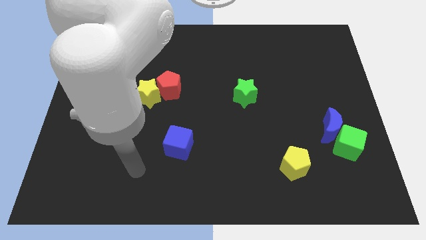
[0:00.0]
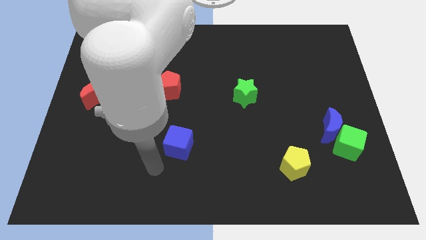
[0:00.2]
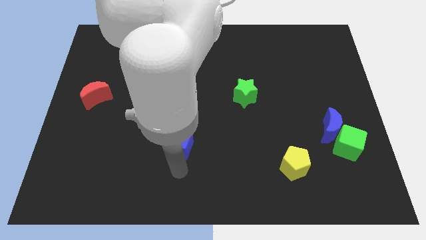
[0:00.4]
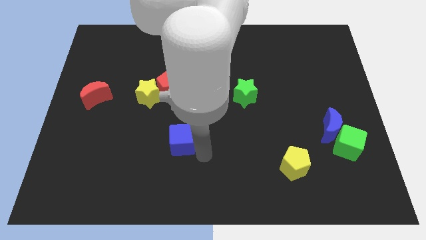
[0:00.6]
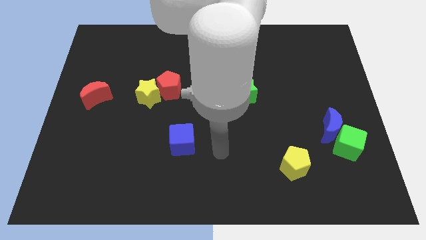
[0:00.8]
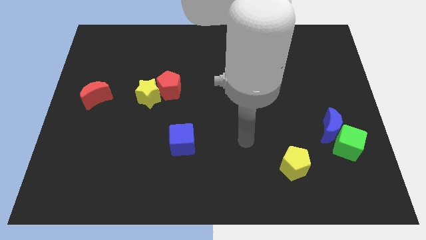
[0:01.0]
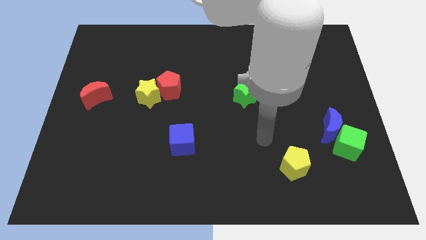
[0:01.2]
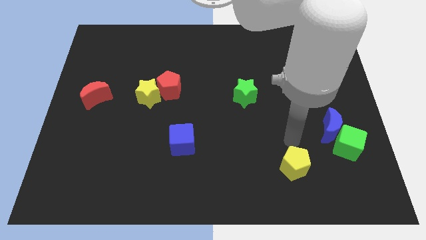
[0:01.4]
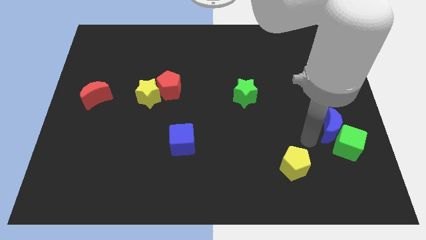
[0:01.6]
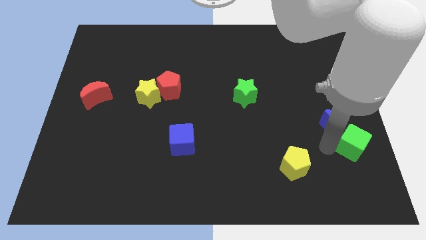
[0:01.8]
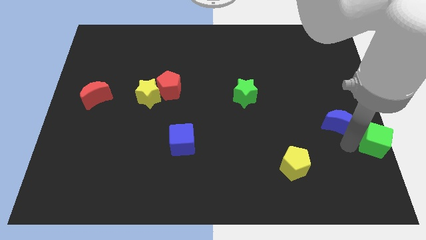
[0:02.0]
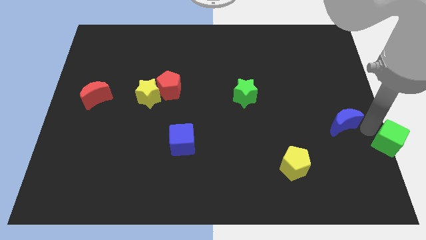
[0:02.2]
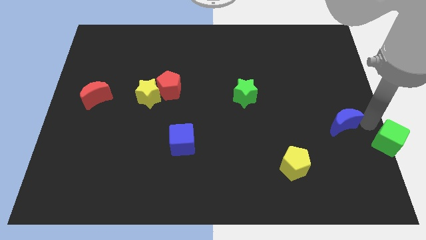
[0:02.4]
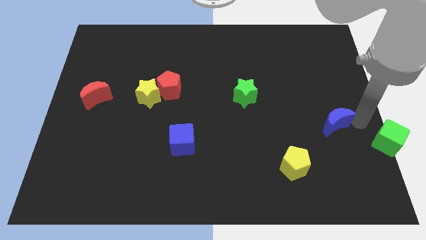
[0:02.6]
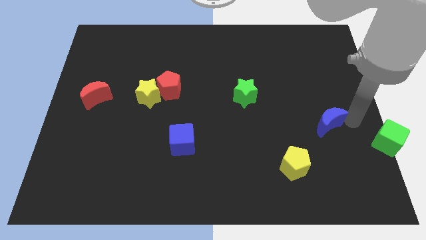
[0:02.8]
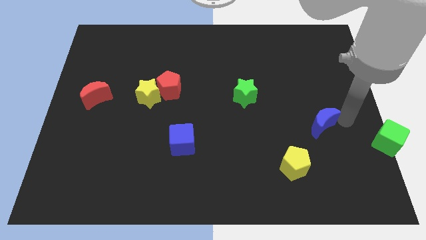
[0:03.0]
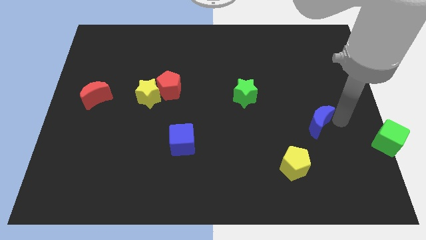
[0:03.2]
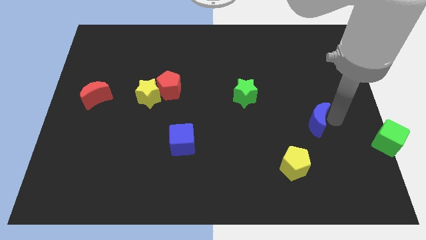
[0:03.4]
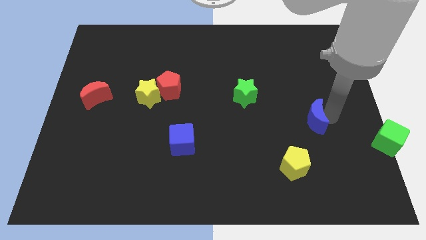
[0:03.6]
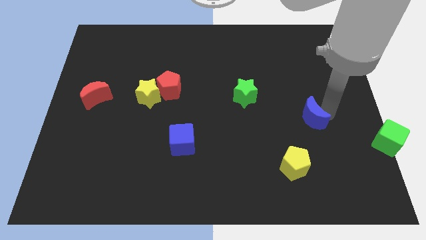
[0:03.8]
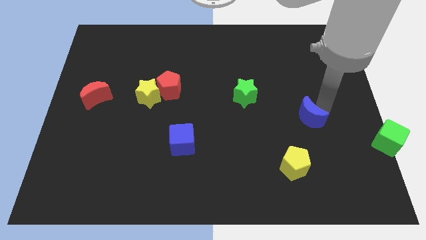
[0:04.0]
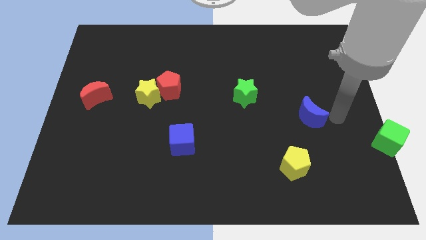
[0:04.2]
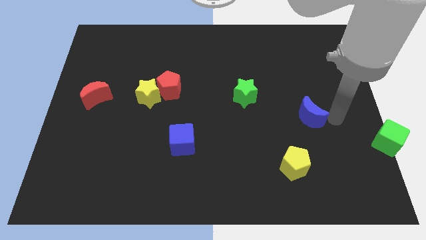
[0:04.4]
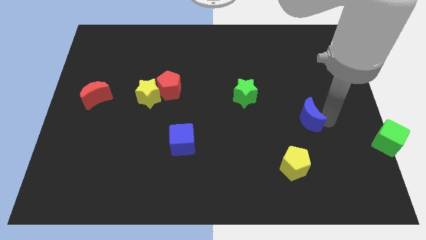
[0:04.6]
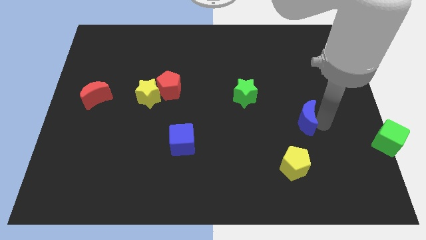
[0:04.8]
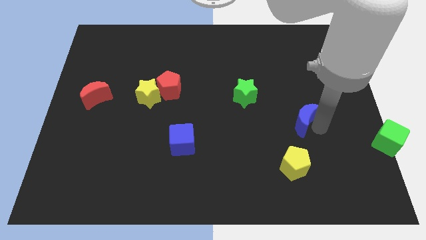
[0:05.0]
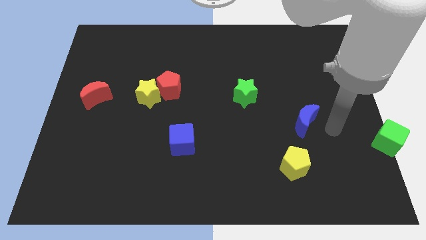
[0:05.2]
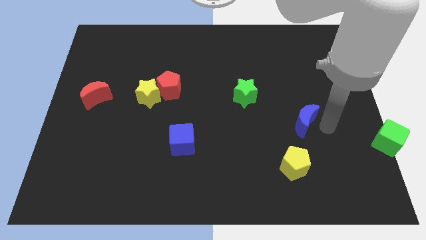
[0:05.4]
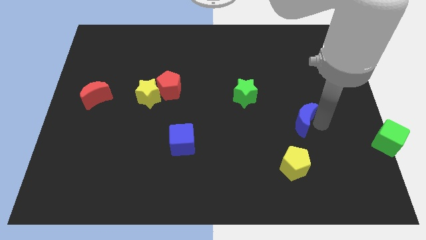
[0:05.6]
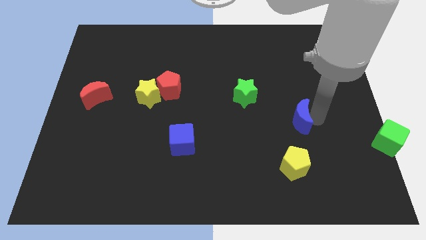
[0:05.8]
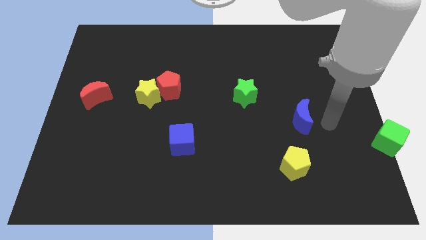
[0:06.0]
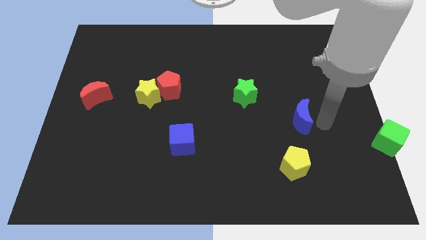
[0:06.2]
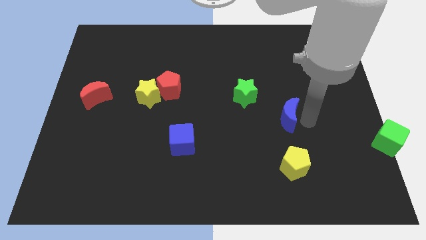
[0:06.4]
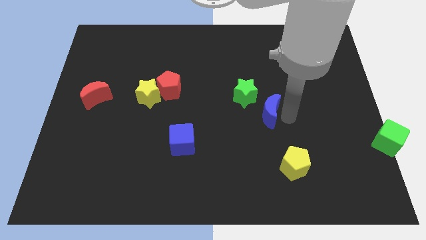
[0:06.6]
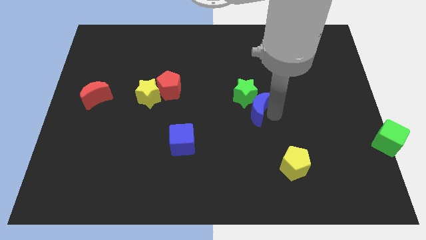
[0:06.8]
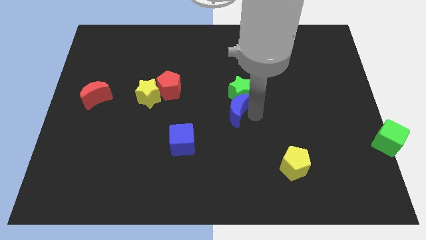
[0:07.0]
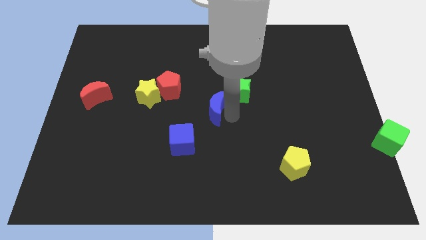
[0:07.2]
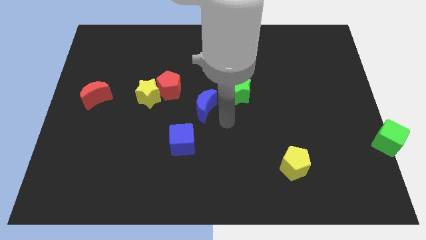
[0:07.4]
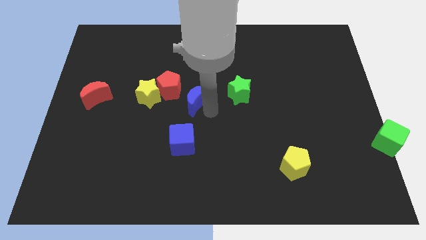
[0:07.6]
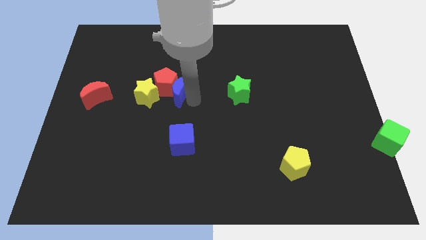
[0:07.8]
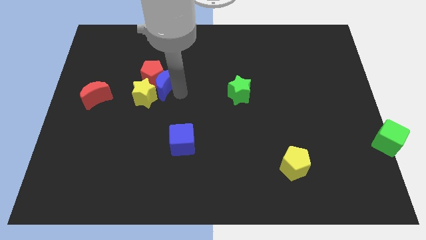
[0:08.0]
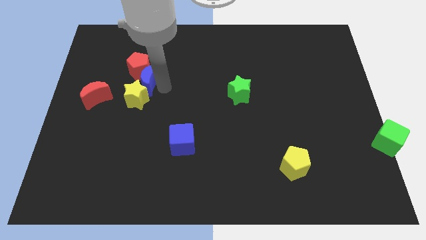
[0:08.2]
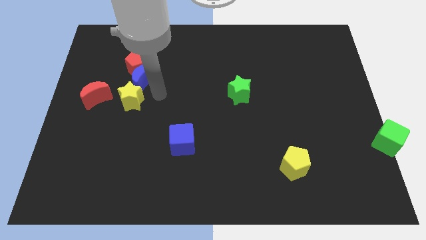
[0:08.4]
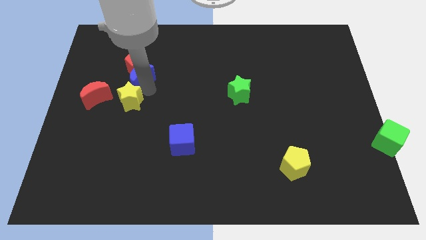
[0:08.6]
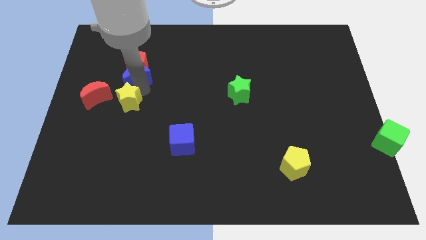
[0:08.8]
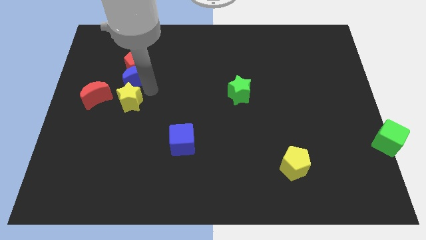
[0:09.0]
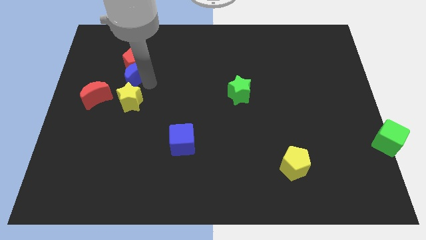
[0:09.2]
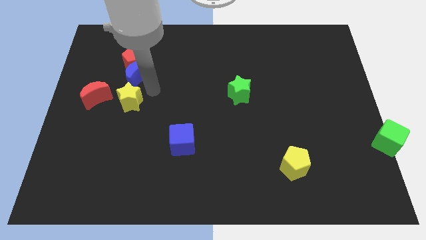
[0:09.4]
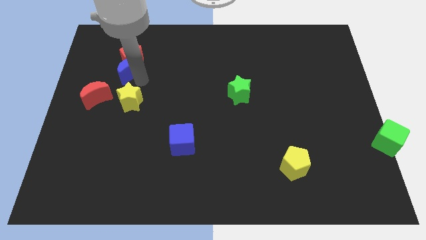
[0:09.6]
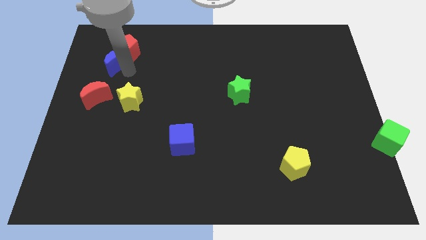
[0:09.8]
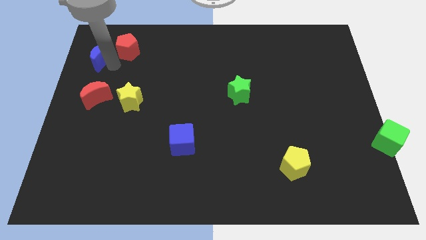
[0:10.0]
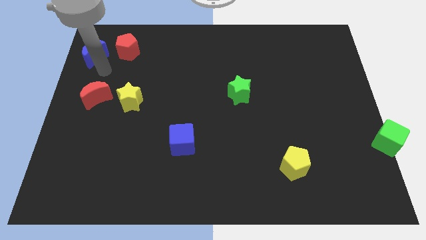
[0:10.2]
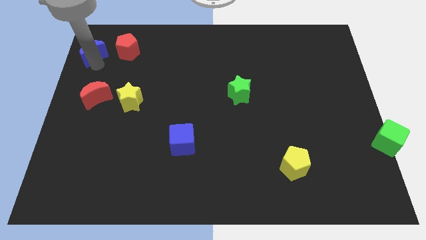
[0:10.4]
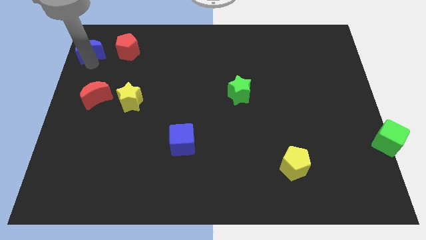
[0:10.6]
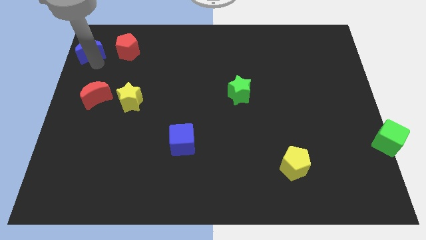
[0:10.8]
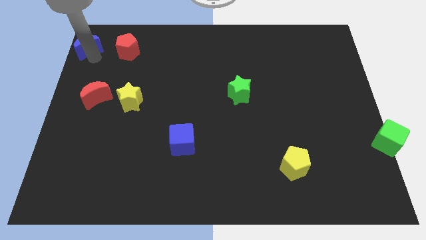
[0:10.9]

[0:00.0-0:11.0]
move the blue moon to the top left
